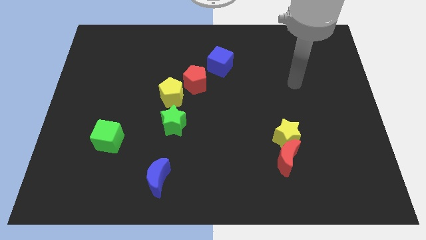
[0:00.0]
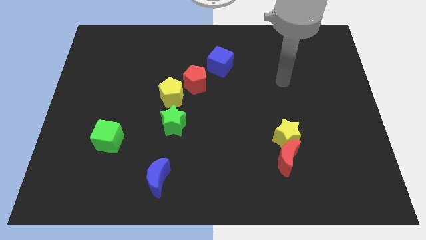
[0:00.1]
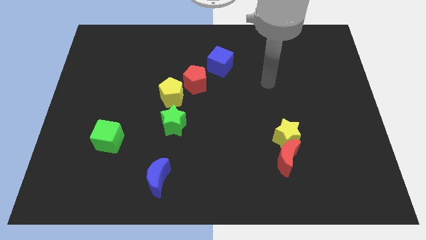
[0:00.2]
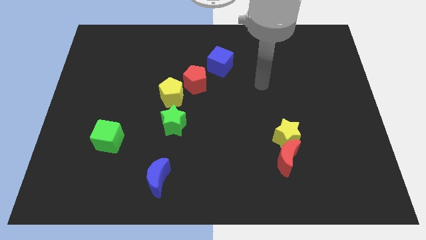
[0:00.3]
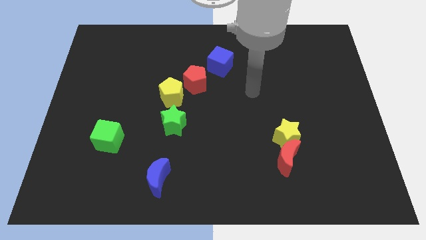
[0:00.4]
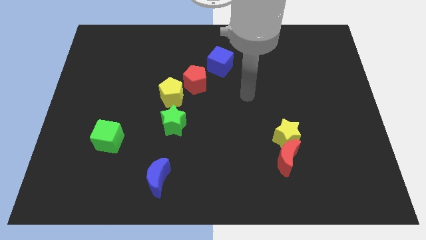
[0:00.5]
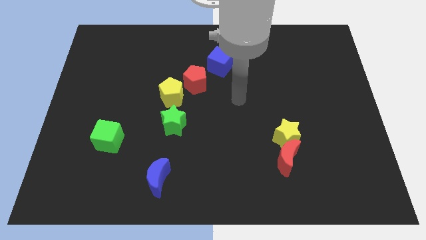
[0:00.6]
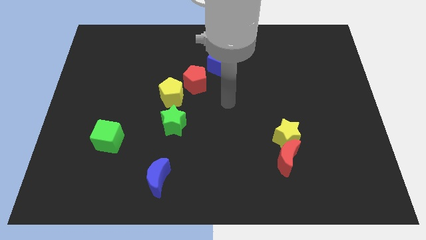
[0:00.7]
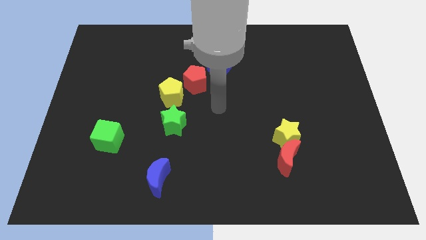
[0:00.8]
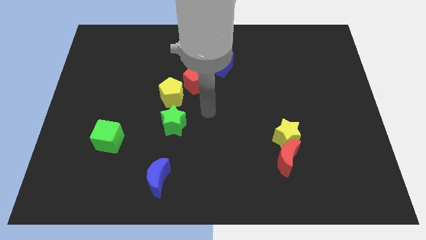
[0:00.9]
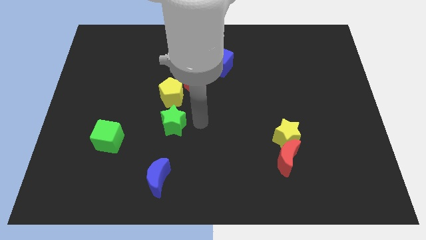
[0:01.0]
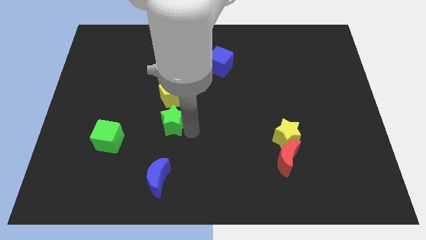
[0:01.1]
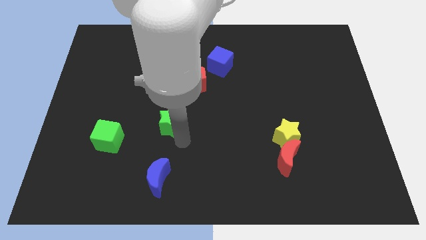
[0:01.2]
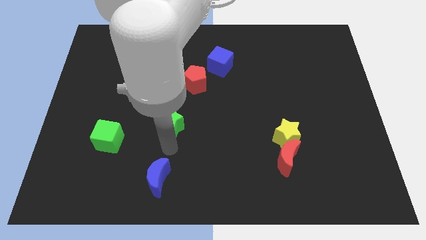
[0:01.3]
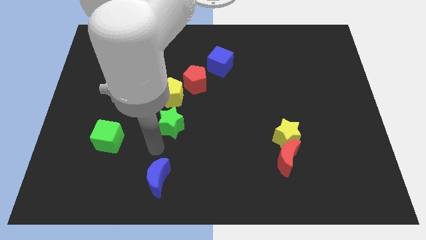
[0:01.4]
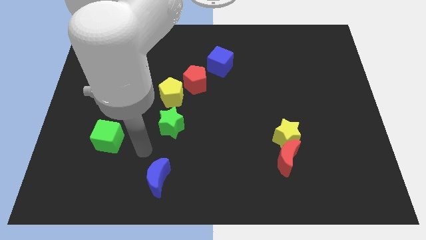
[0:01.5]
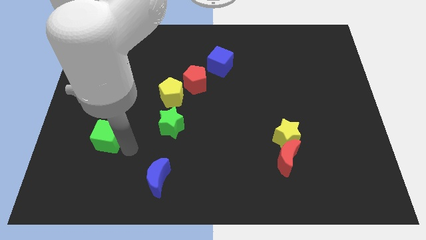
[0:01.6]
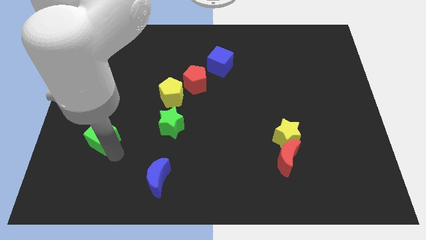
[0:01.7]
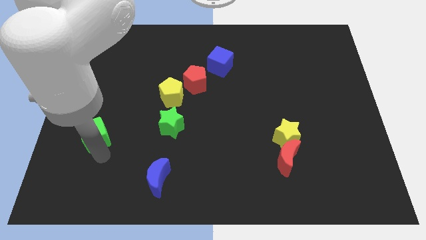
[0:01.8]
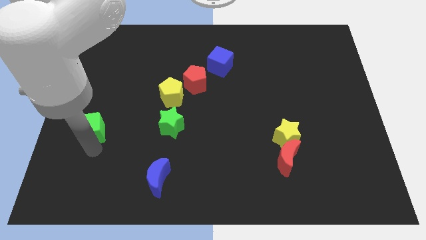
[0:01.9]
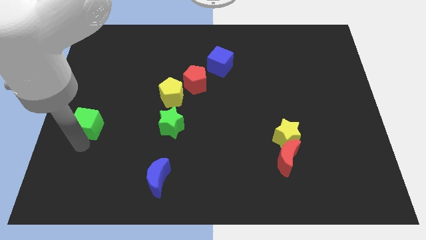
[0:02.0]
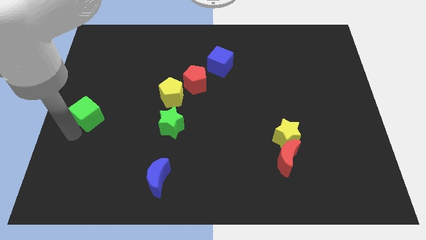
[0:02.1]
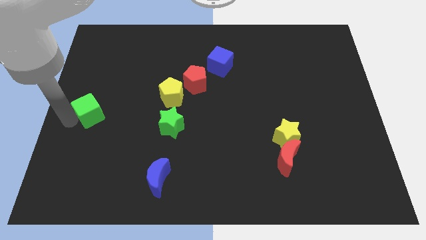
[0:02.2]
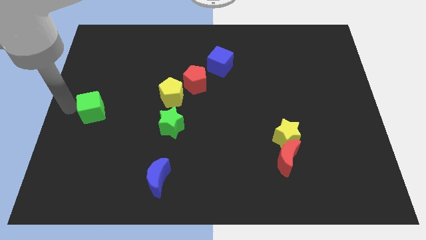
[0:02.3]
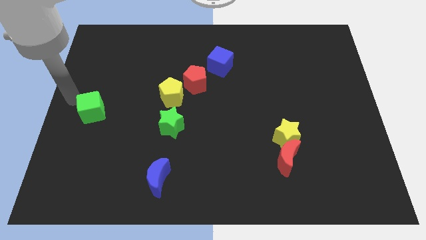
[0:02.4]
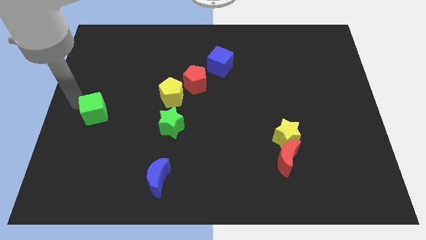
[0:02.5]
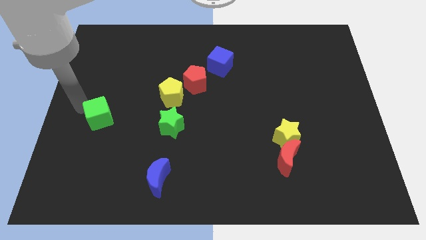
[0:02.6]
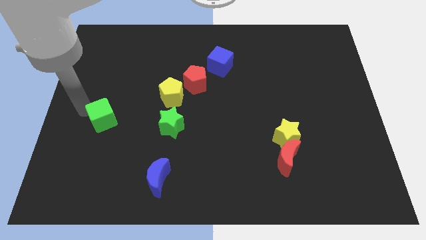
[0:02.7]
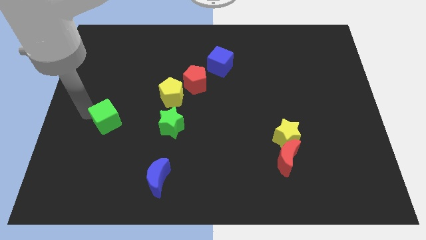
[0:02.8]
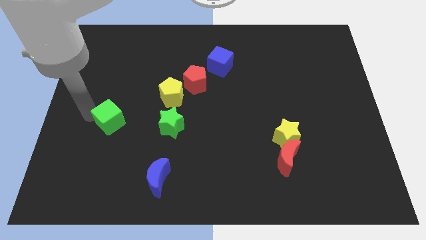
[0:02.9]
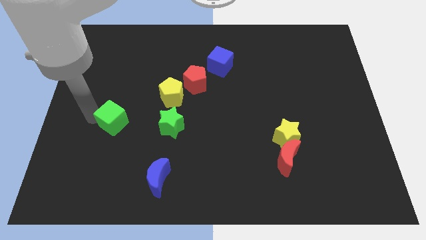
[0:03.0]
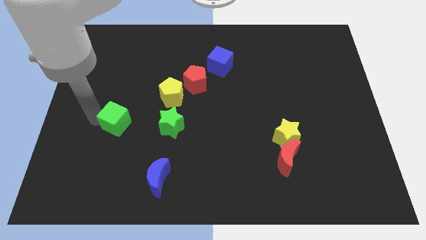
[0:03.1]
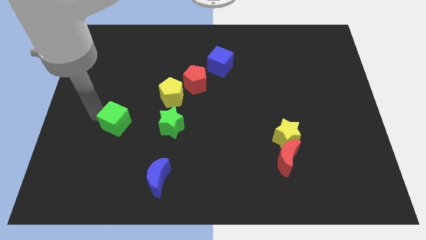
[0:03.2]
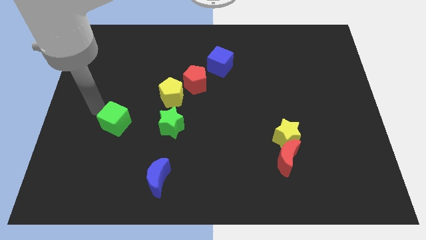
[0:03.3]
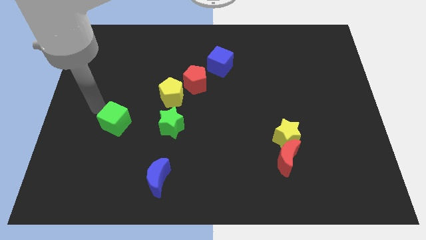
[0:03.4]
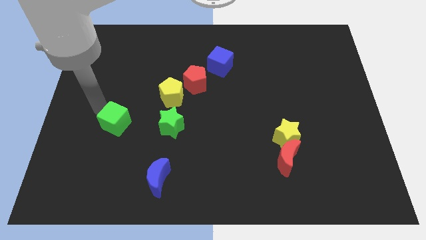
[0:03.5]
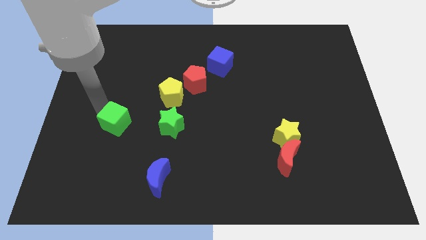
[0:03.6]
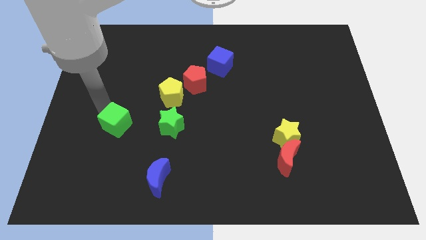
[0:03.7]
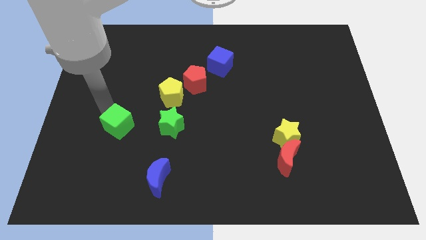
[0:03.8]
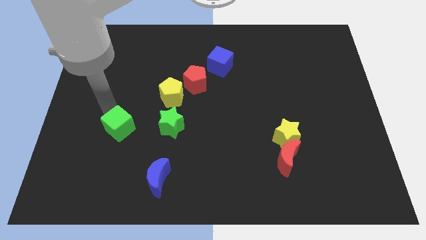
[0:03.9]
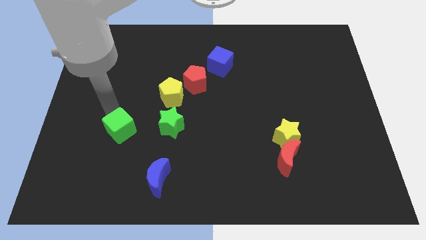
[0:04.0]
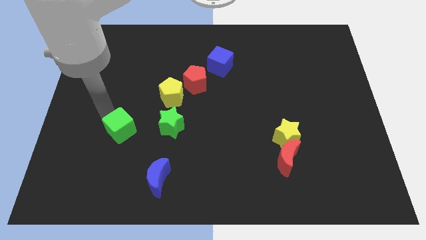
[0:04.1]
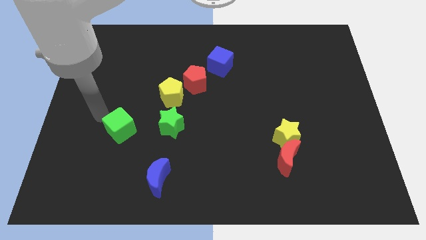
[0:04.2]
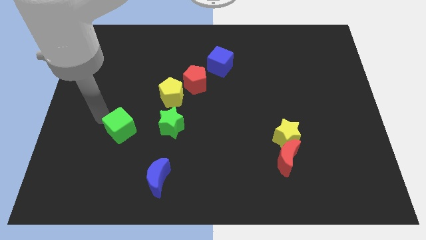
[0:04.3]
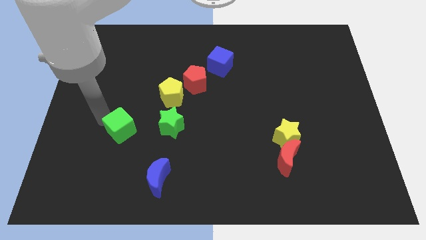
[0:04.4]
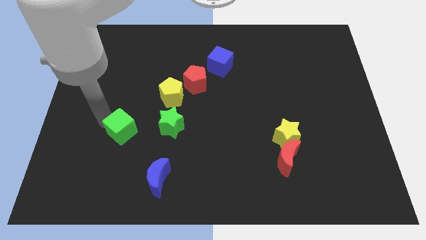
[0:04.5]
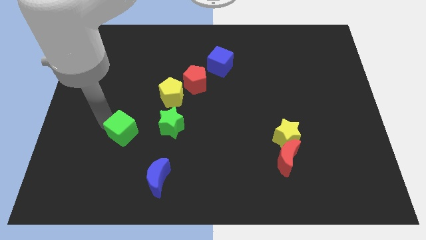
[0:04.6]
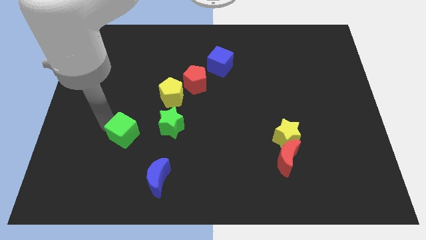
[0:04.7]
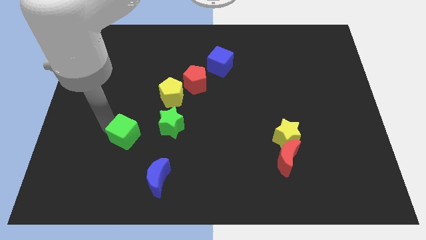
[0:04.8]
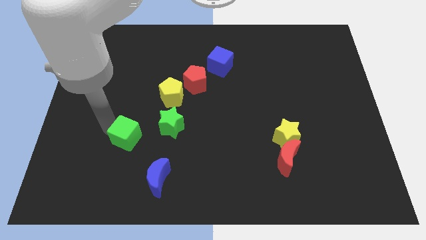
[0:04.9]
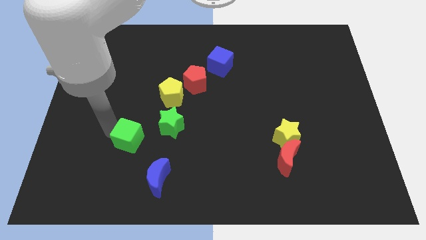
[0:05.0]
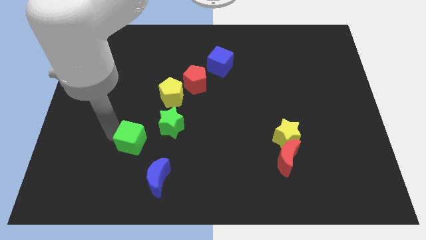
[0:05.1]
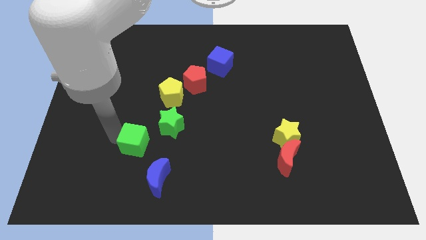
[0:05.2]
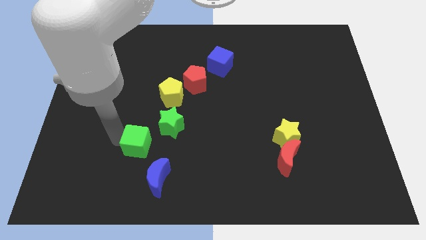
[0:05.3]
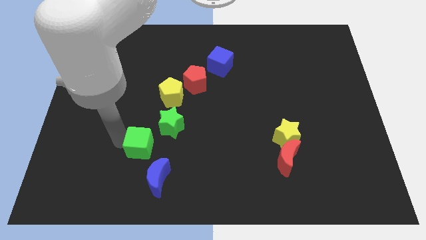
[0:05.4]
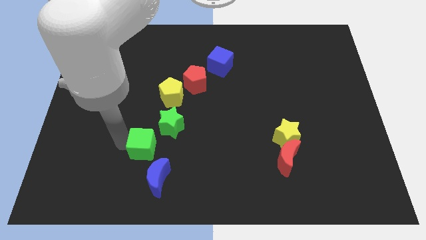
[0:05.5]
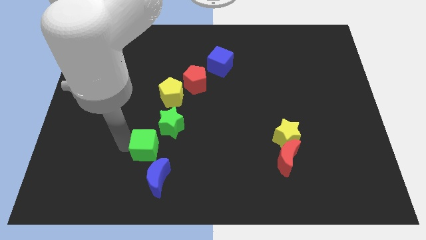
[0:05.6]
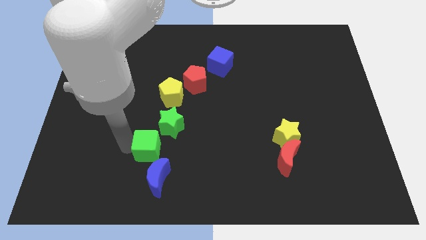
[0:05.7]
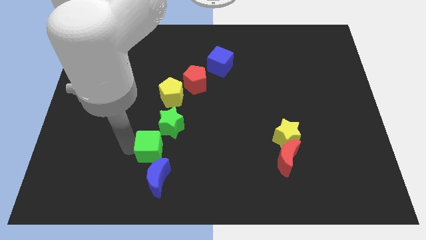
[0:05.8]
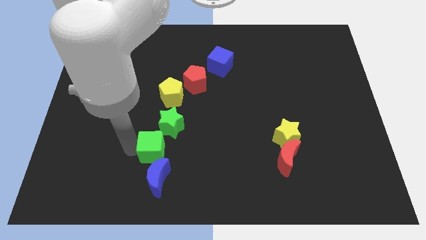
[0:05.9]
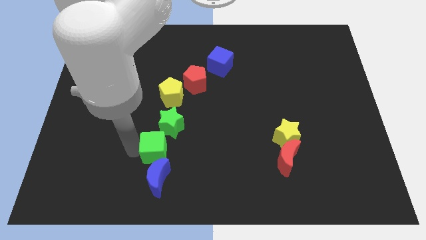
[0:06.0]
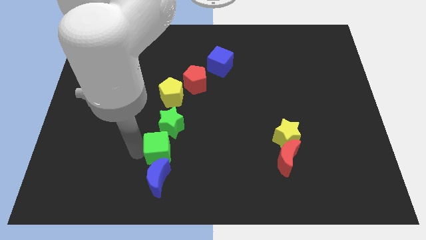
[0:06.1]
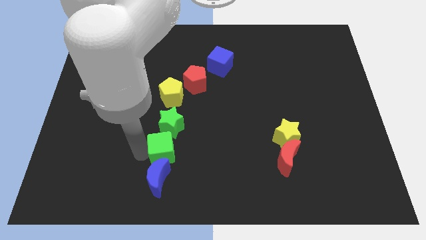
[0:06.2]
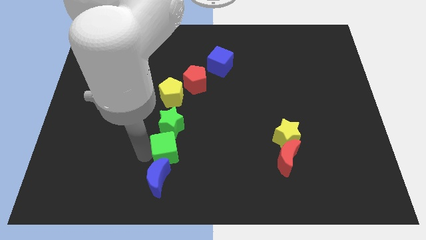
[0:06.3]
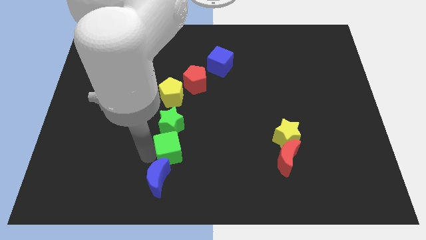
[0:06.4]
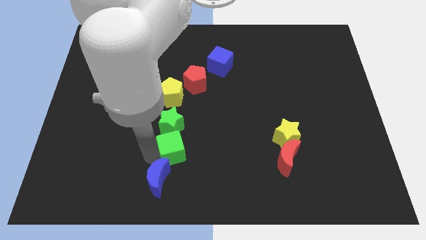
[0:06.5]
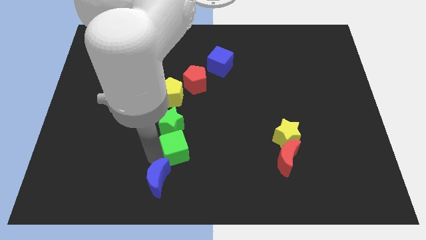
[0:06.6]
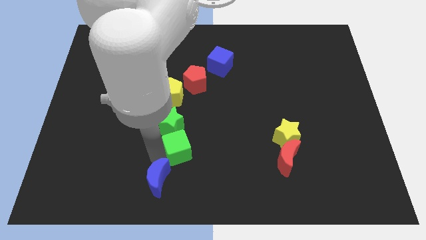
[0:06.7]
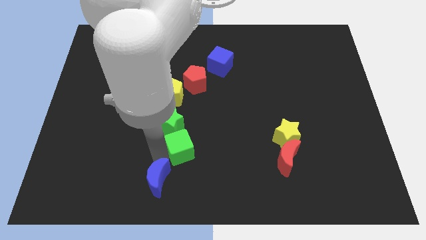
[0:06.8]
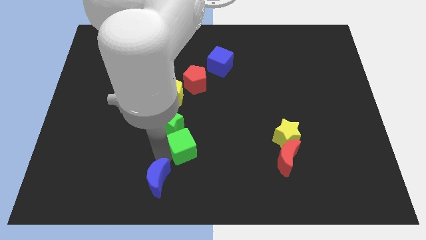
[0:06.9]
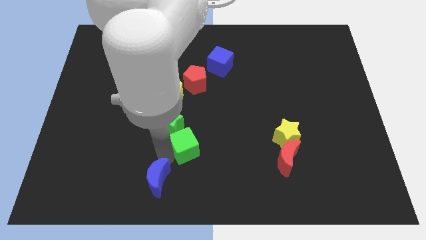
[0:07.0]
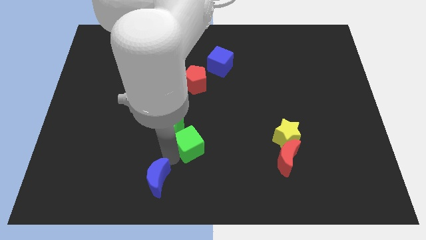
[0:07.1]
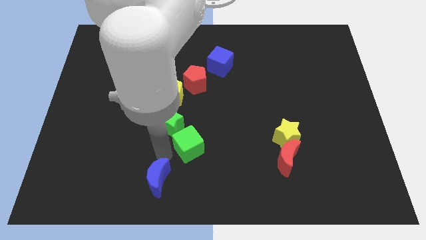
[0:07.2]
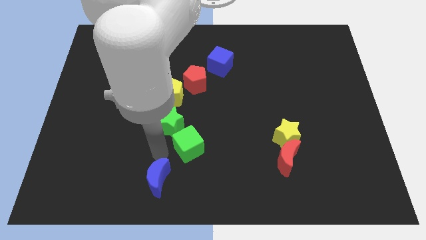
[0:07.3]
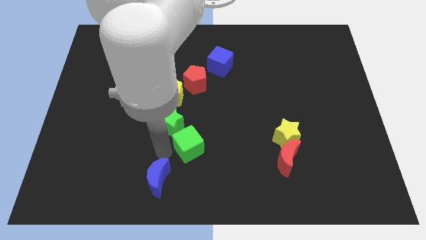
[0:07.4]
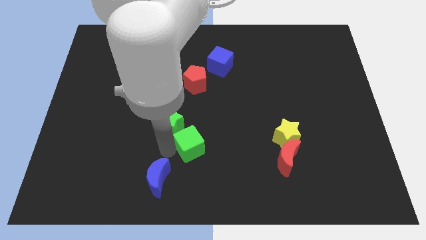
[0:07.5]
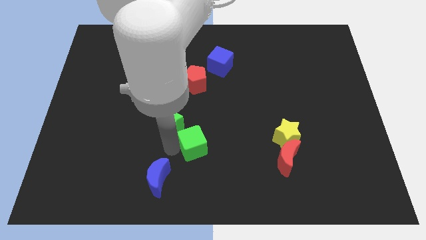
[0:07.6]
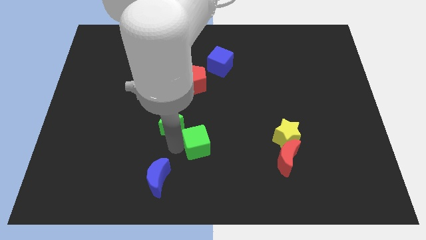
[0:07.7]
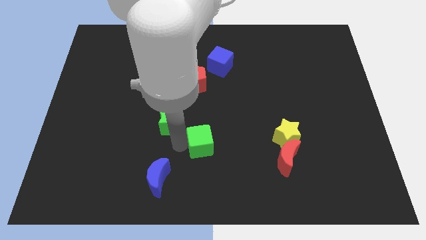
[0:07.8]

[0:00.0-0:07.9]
push the green cube right
